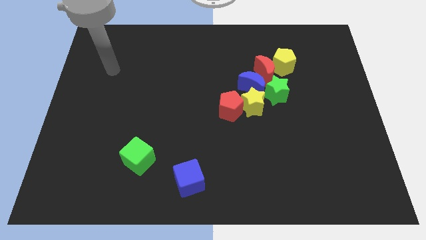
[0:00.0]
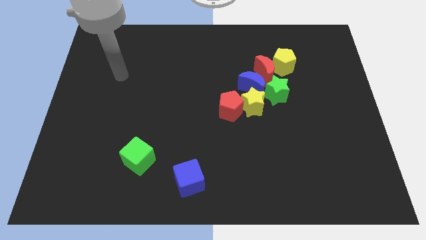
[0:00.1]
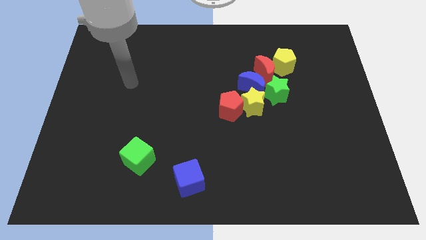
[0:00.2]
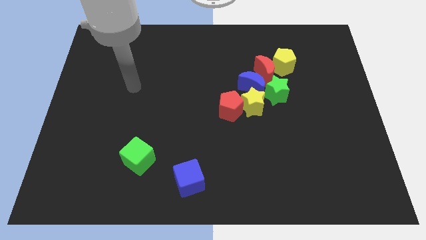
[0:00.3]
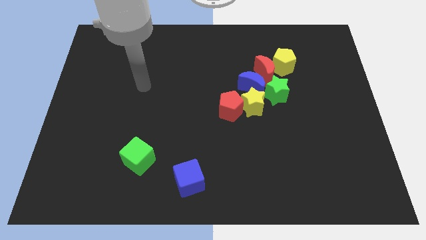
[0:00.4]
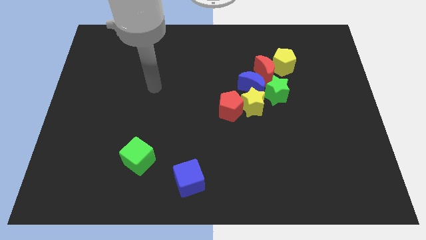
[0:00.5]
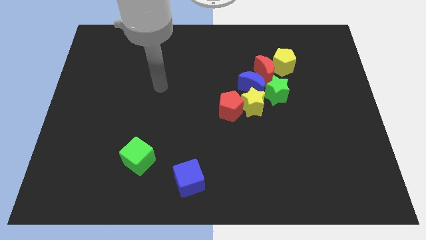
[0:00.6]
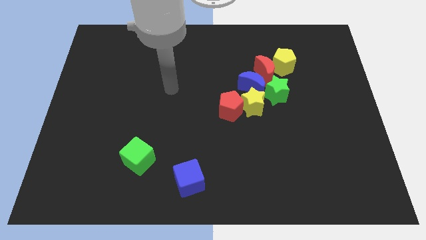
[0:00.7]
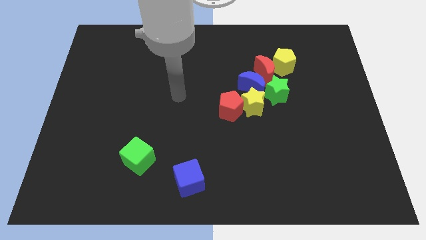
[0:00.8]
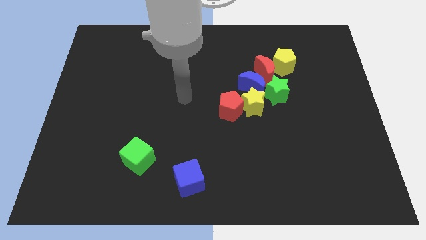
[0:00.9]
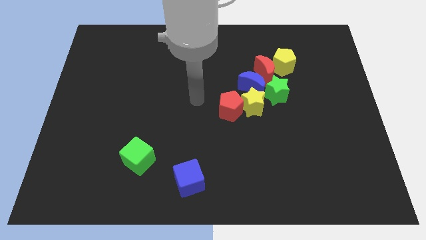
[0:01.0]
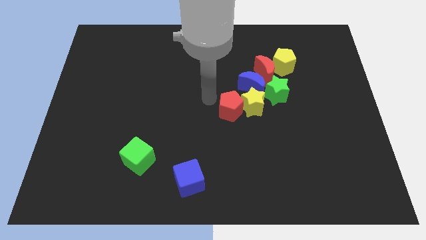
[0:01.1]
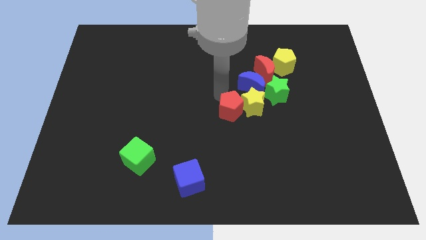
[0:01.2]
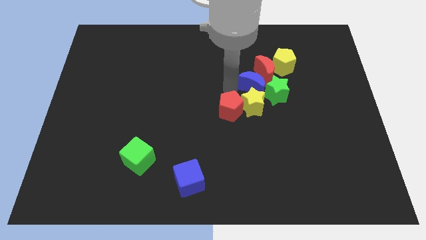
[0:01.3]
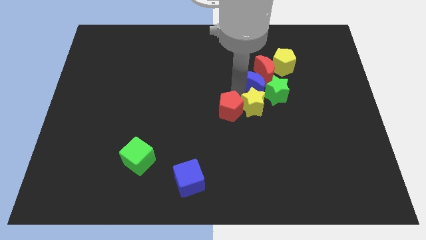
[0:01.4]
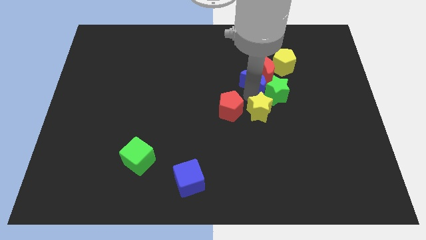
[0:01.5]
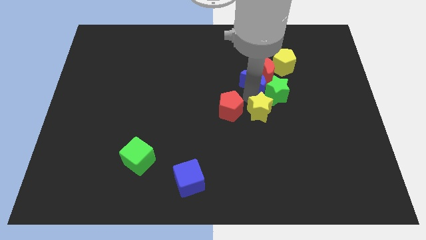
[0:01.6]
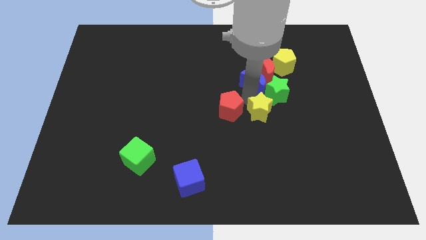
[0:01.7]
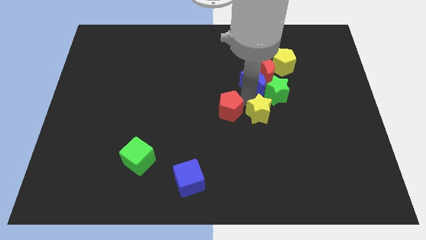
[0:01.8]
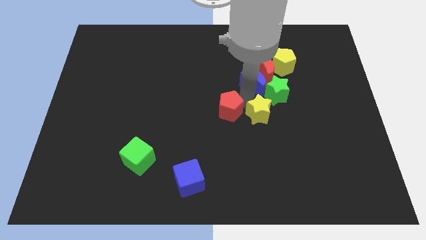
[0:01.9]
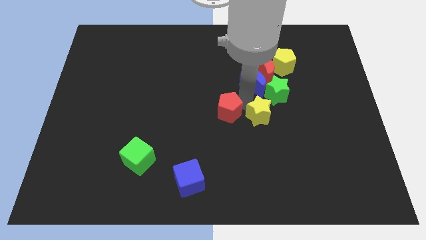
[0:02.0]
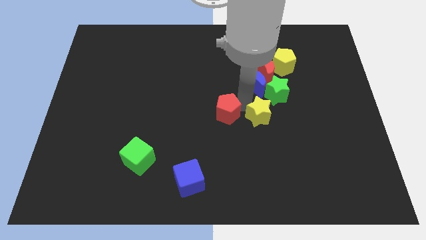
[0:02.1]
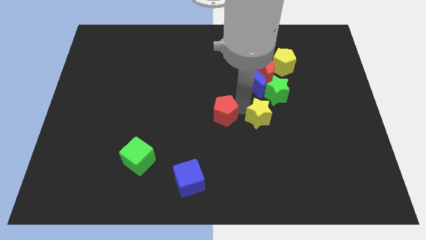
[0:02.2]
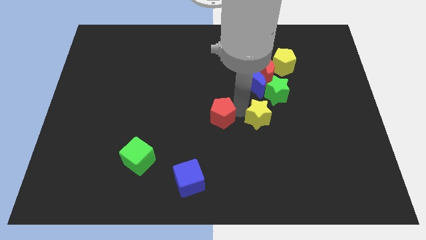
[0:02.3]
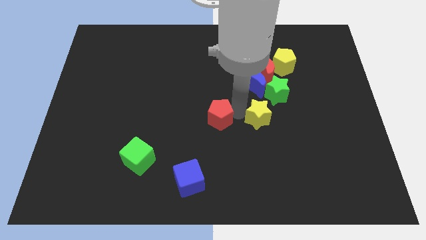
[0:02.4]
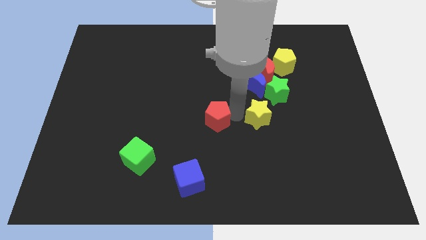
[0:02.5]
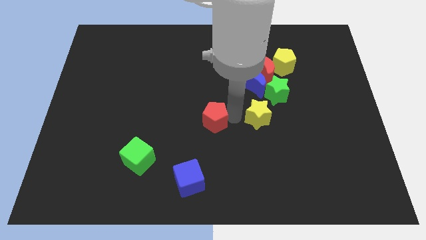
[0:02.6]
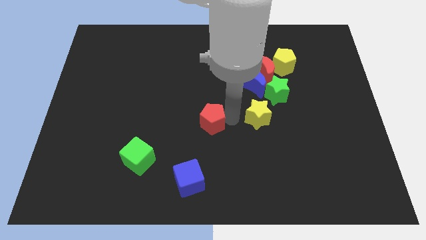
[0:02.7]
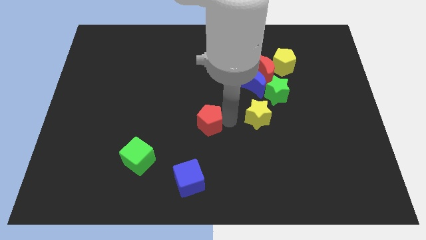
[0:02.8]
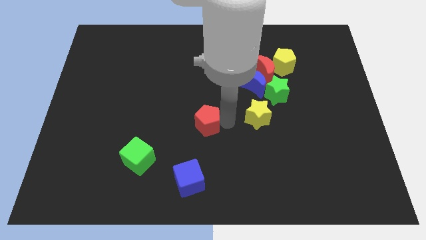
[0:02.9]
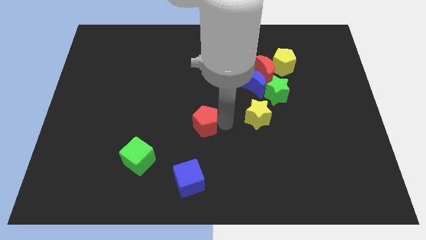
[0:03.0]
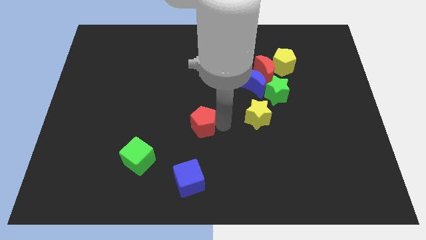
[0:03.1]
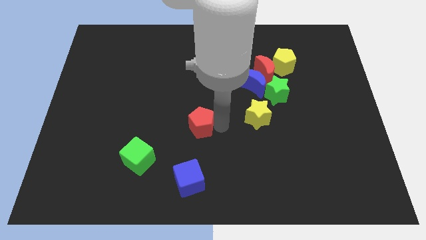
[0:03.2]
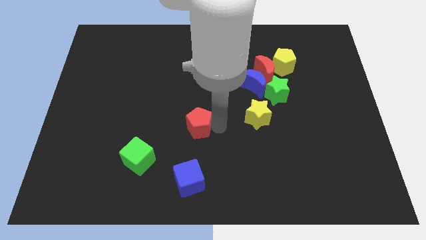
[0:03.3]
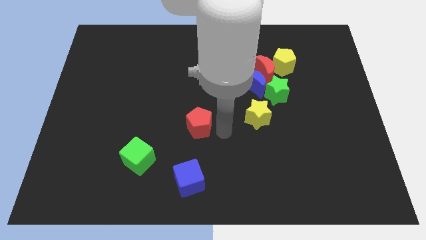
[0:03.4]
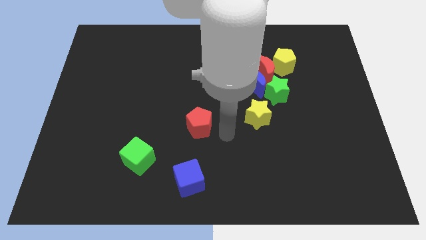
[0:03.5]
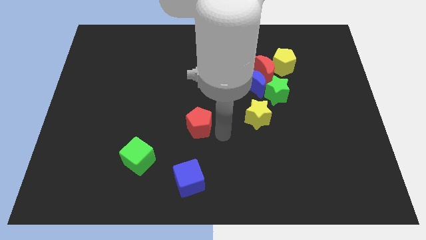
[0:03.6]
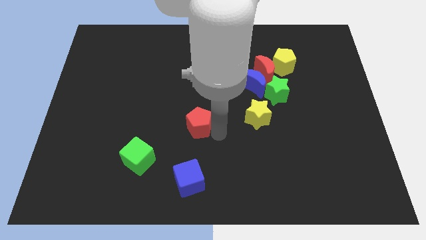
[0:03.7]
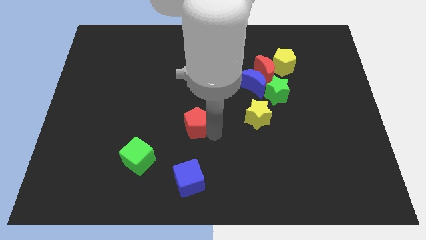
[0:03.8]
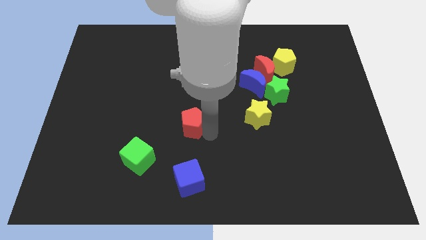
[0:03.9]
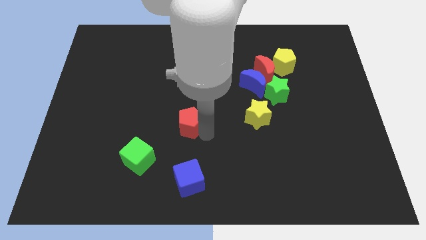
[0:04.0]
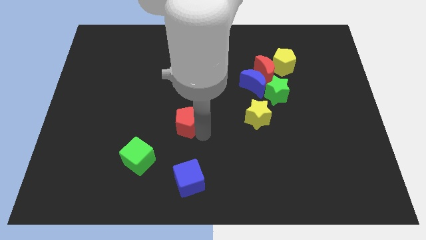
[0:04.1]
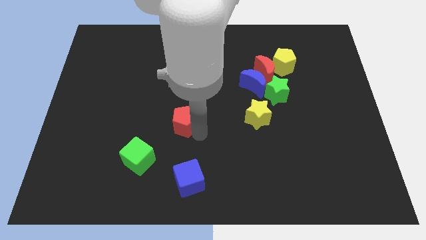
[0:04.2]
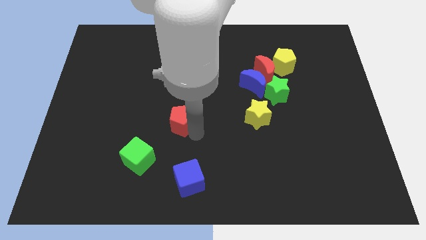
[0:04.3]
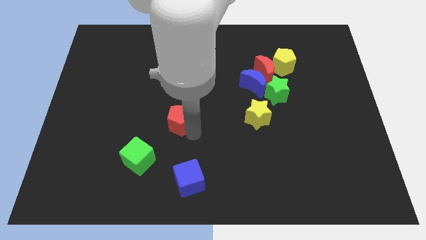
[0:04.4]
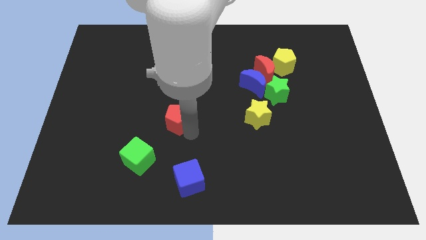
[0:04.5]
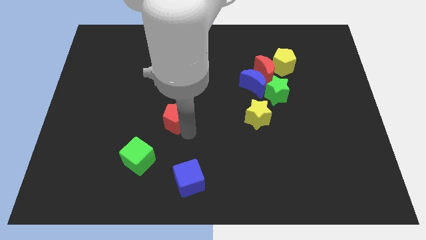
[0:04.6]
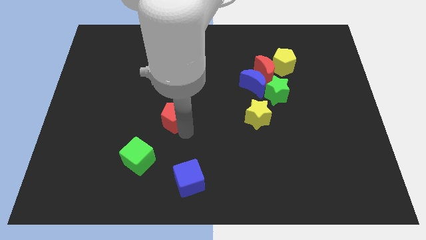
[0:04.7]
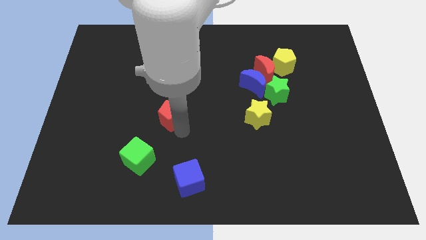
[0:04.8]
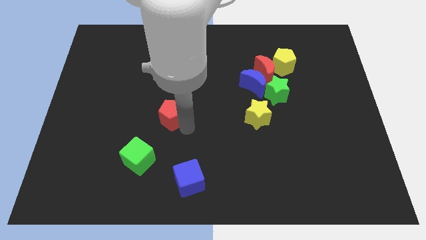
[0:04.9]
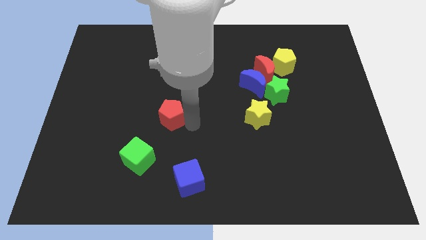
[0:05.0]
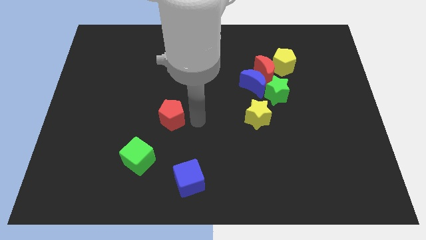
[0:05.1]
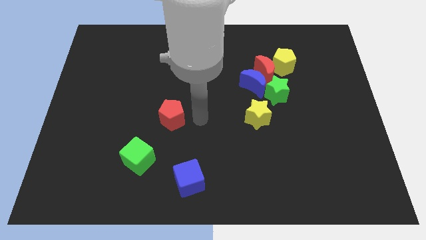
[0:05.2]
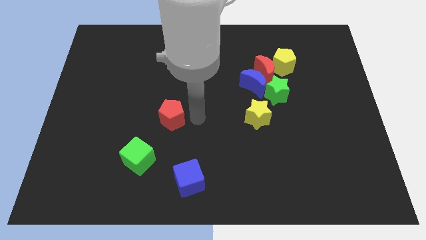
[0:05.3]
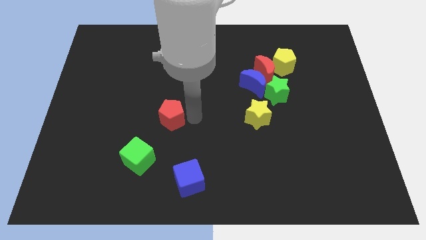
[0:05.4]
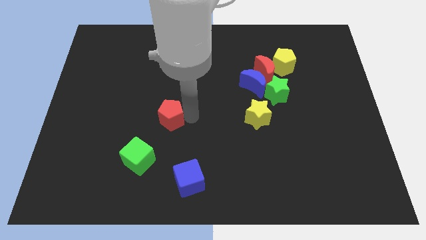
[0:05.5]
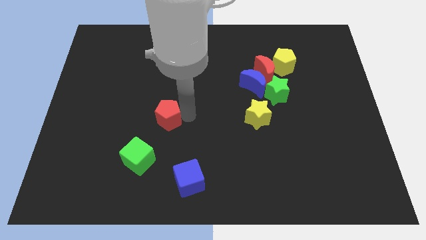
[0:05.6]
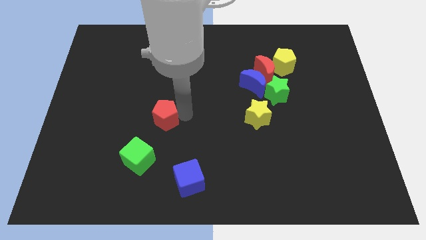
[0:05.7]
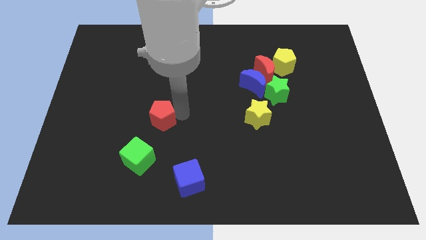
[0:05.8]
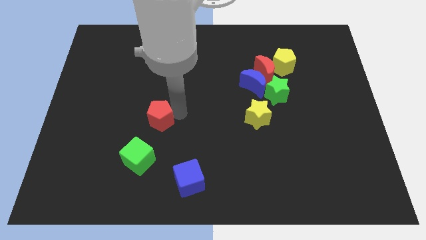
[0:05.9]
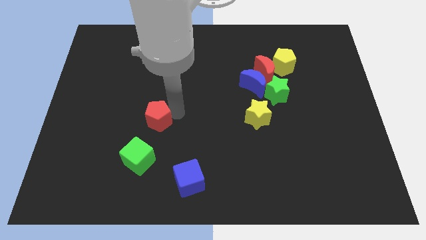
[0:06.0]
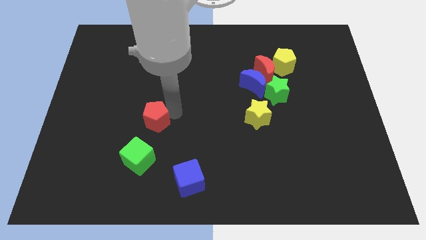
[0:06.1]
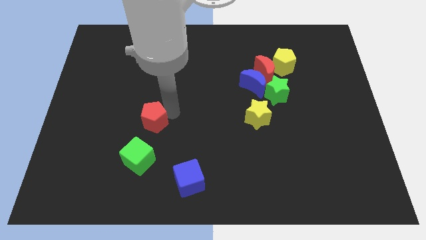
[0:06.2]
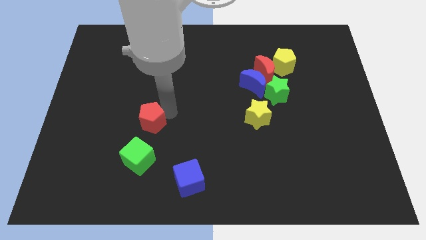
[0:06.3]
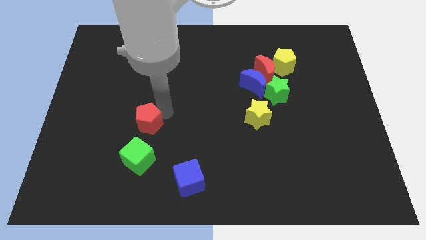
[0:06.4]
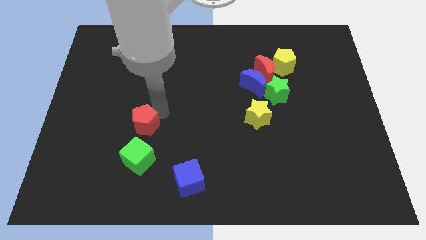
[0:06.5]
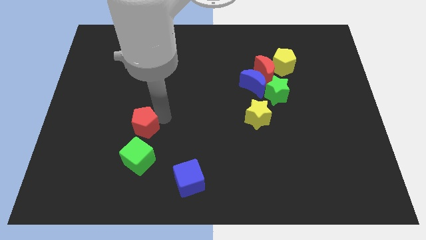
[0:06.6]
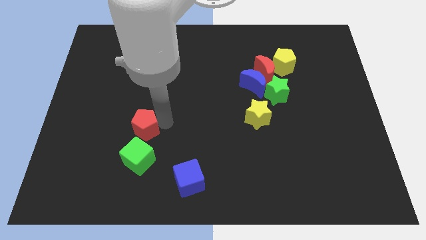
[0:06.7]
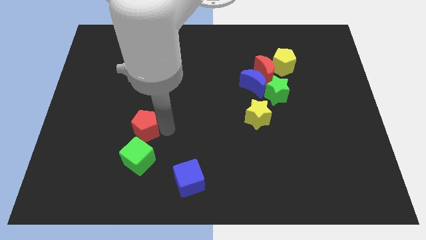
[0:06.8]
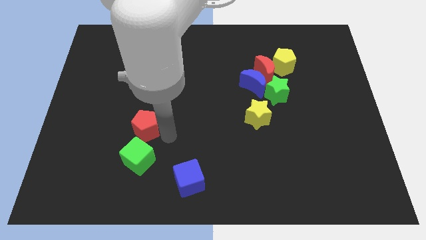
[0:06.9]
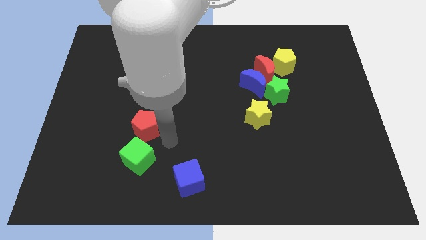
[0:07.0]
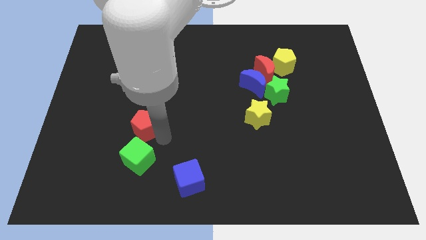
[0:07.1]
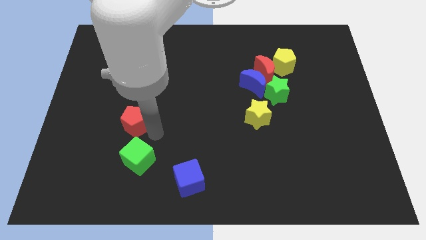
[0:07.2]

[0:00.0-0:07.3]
slide the red pentagon left

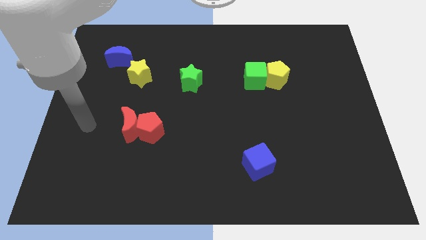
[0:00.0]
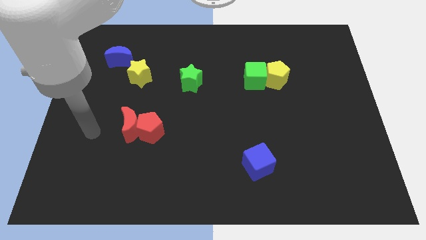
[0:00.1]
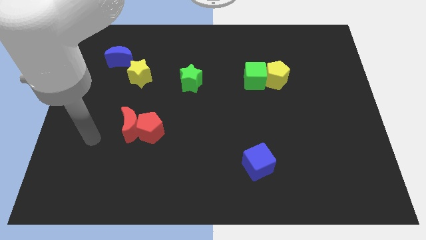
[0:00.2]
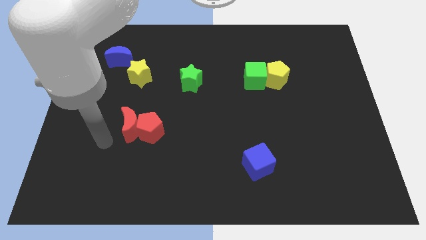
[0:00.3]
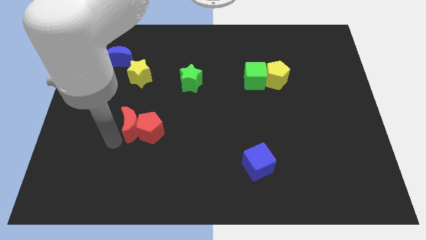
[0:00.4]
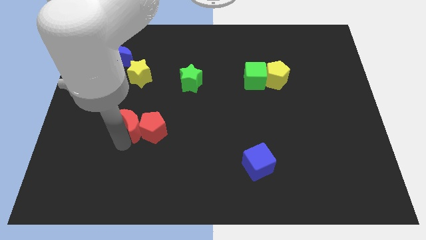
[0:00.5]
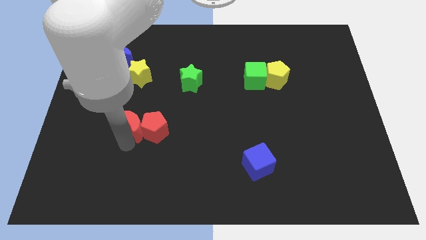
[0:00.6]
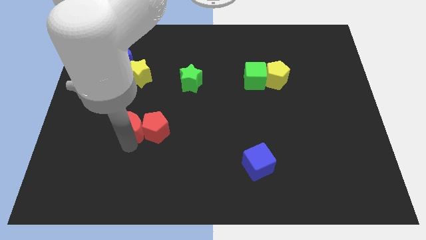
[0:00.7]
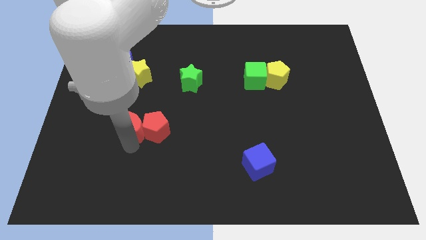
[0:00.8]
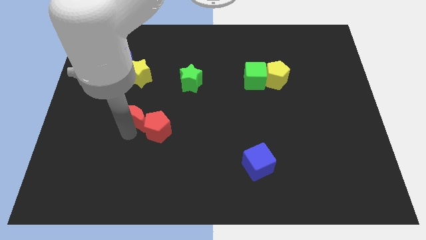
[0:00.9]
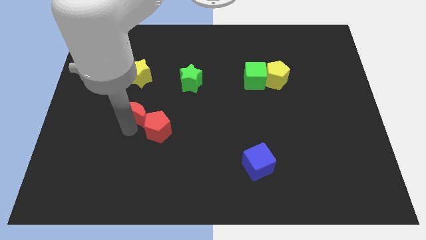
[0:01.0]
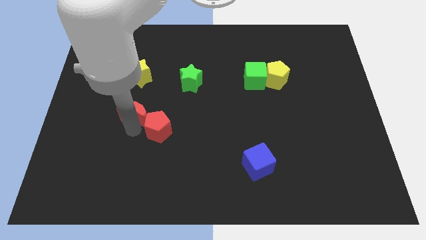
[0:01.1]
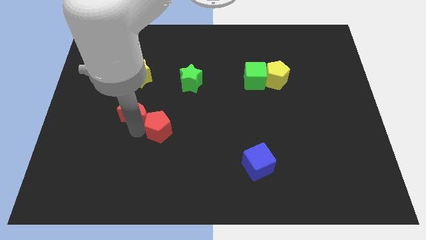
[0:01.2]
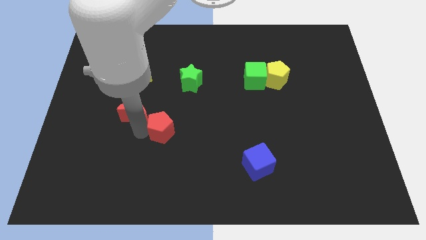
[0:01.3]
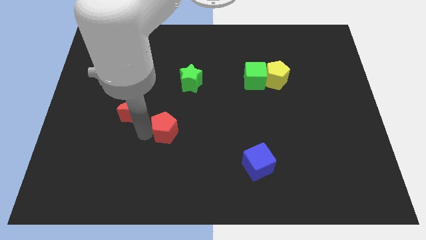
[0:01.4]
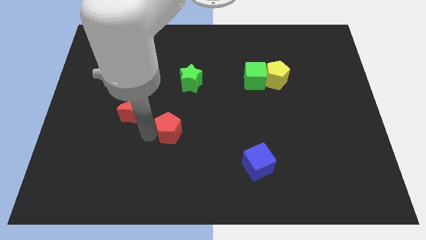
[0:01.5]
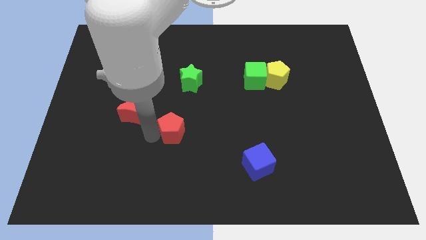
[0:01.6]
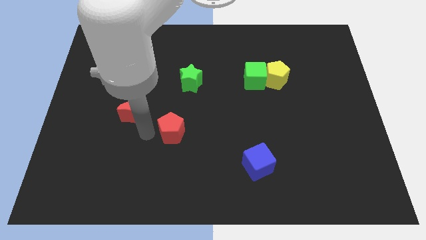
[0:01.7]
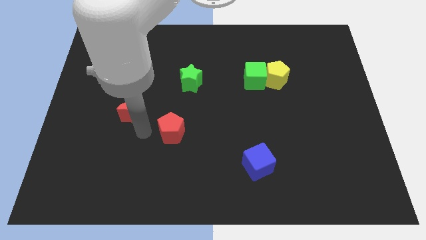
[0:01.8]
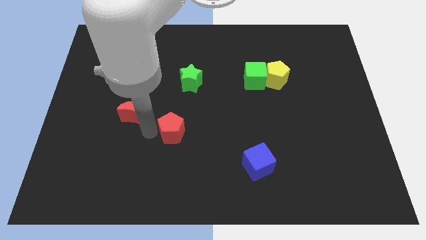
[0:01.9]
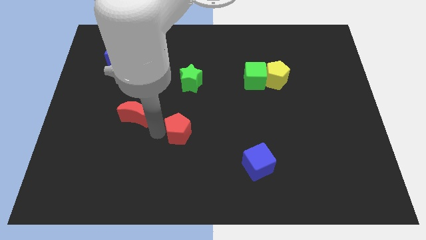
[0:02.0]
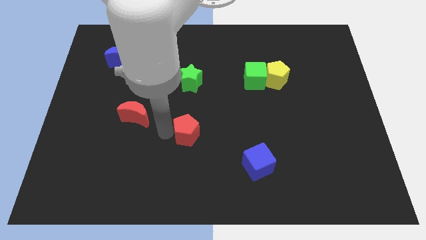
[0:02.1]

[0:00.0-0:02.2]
slide the red pentagon somewhat right
